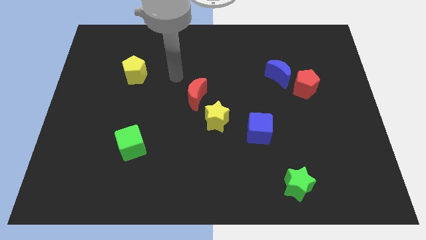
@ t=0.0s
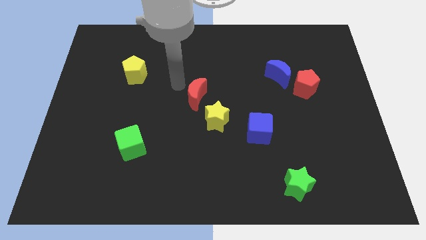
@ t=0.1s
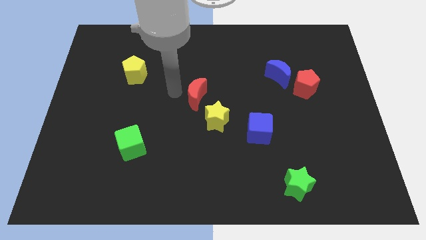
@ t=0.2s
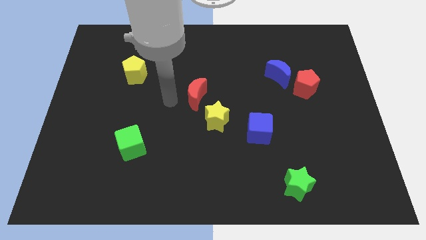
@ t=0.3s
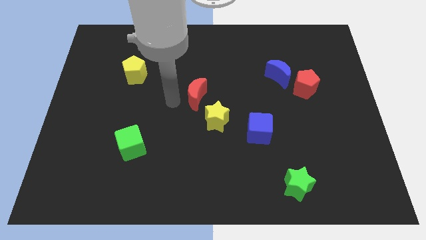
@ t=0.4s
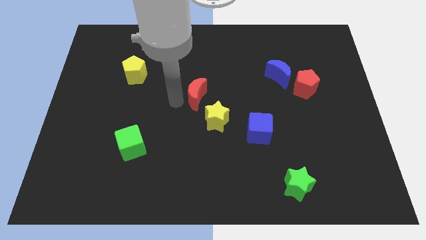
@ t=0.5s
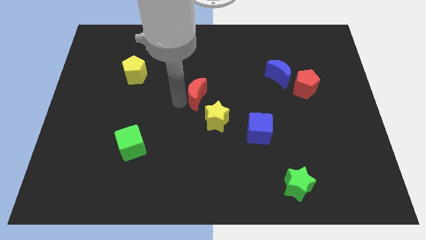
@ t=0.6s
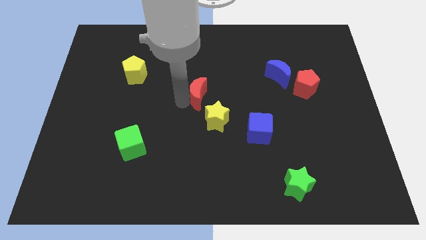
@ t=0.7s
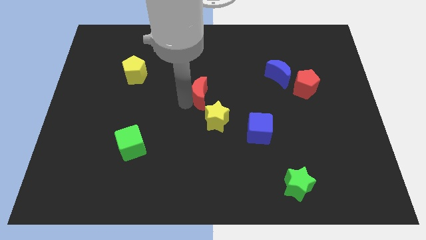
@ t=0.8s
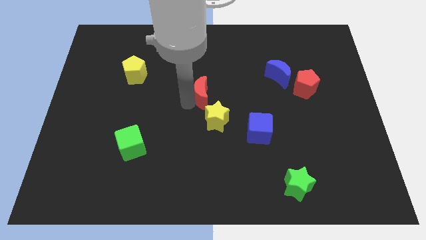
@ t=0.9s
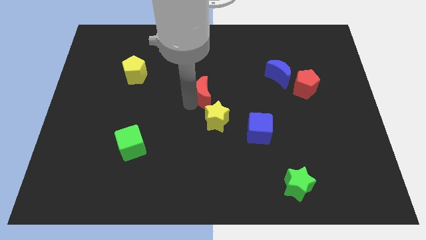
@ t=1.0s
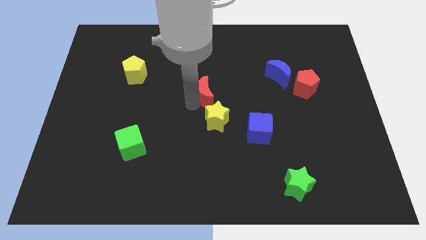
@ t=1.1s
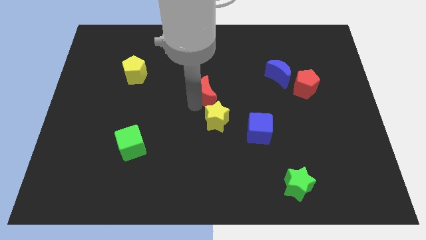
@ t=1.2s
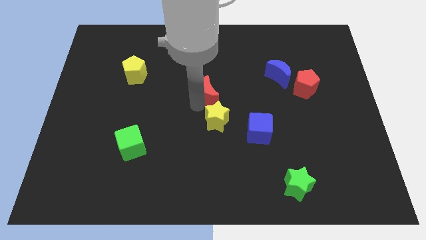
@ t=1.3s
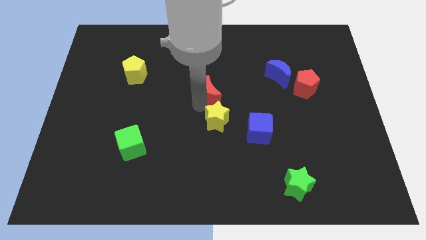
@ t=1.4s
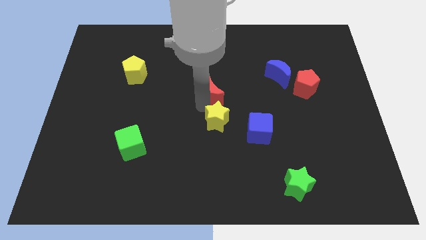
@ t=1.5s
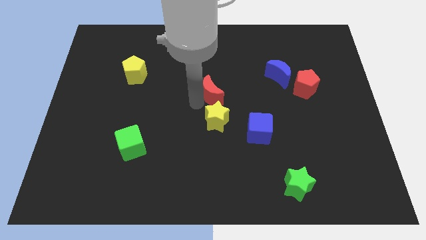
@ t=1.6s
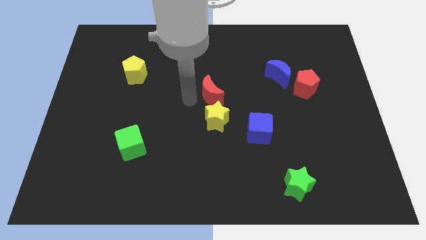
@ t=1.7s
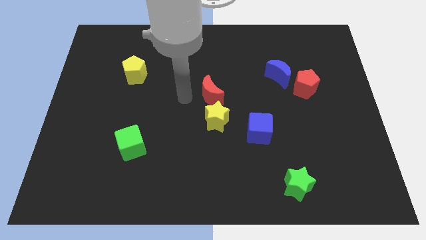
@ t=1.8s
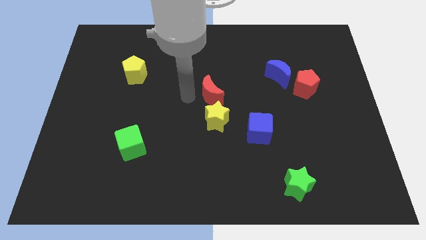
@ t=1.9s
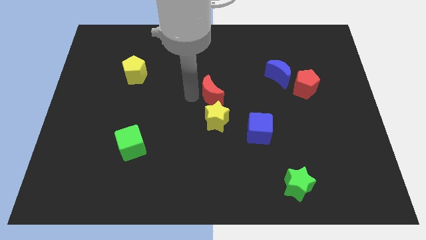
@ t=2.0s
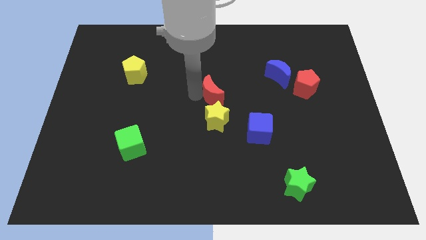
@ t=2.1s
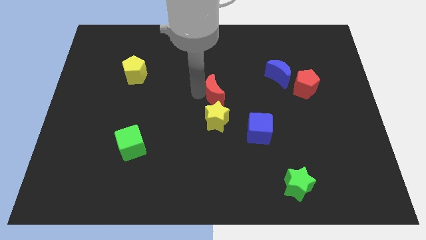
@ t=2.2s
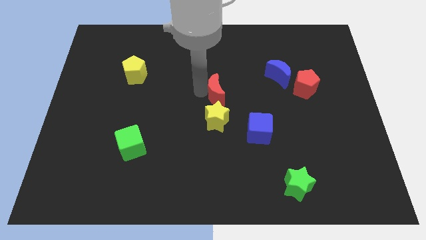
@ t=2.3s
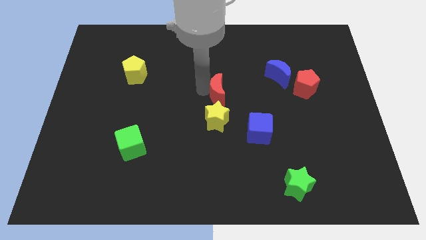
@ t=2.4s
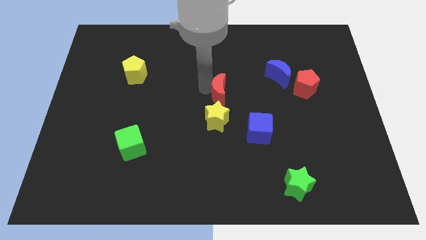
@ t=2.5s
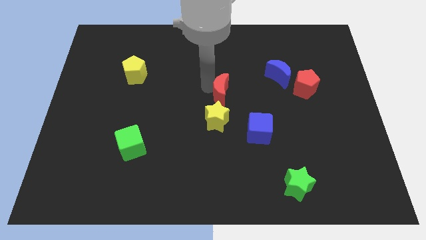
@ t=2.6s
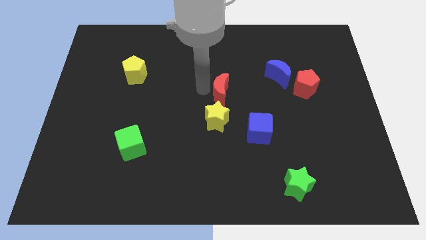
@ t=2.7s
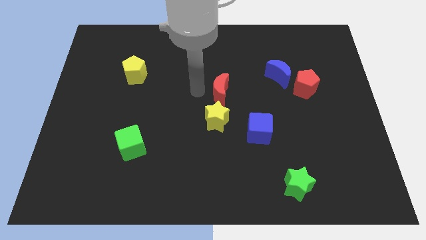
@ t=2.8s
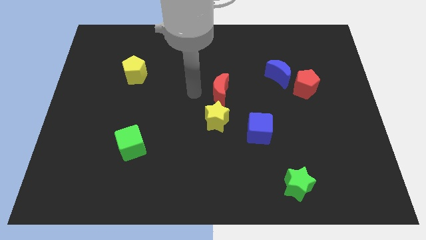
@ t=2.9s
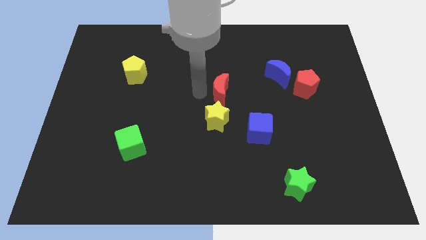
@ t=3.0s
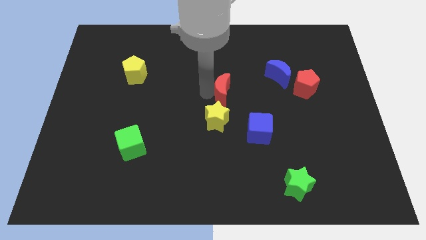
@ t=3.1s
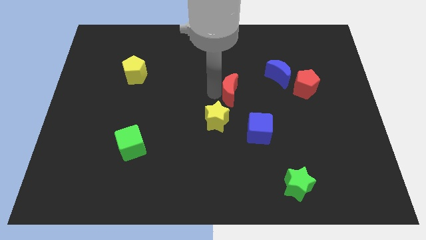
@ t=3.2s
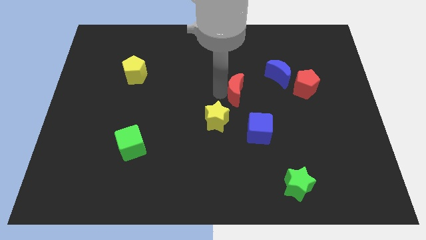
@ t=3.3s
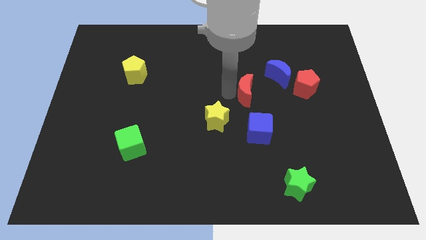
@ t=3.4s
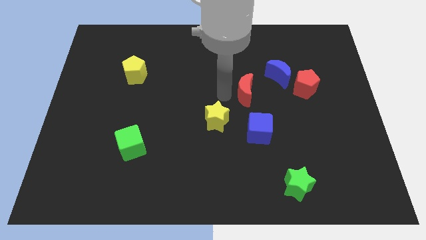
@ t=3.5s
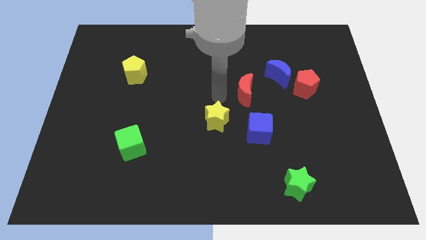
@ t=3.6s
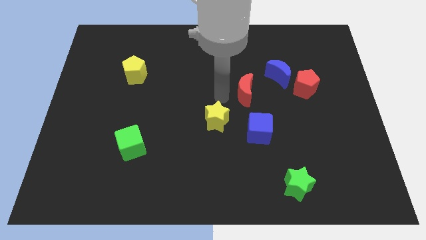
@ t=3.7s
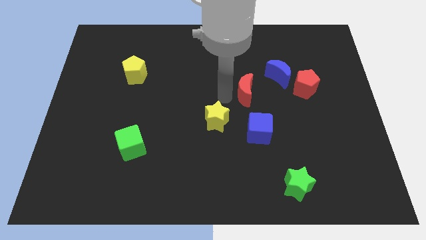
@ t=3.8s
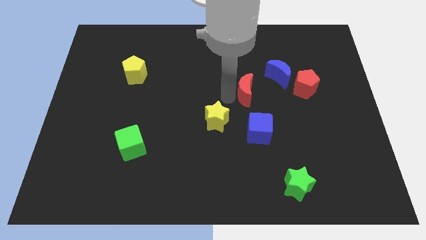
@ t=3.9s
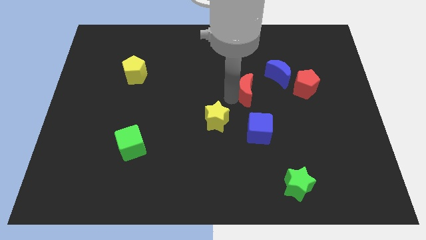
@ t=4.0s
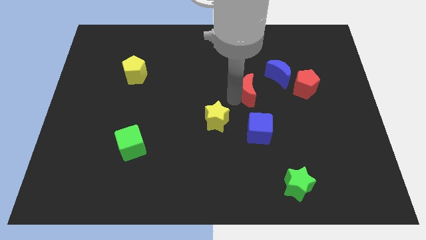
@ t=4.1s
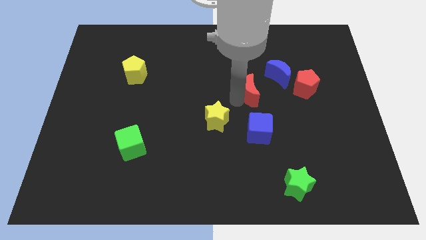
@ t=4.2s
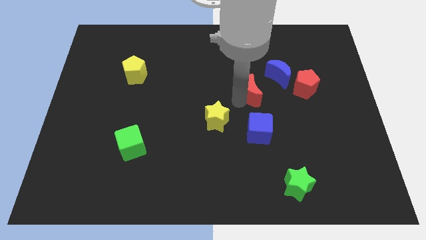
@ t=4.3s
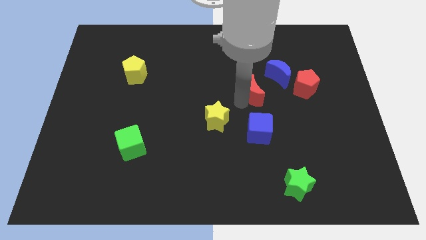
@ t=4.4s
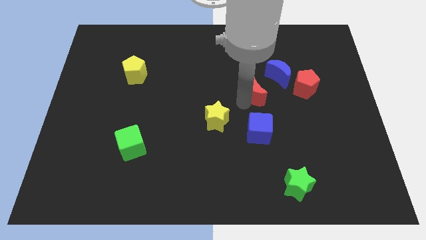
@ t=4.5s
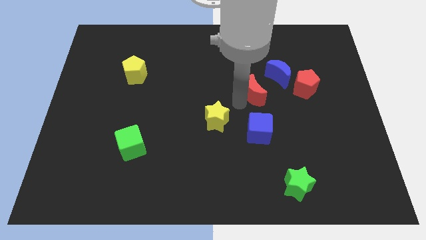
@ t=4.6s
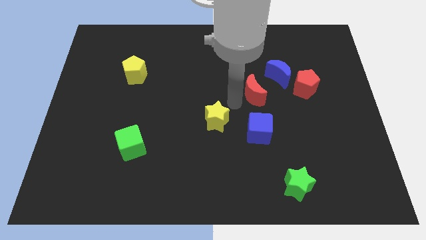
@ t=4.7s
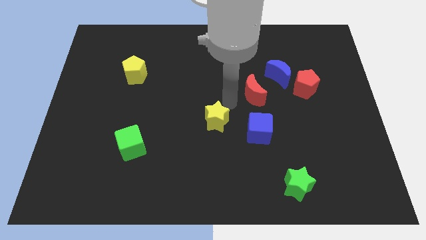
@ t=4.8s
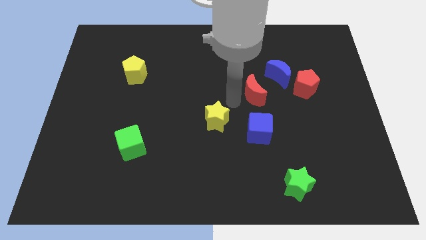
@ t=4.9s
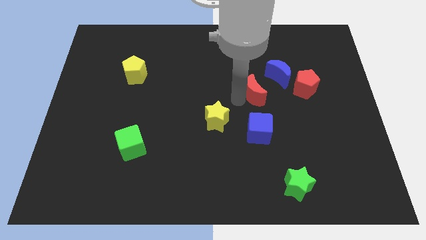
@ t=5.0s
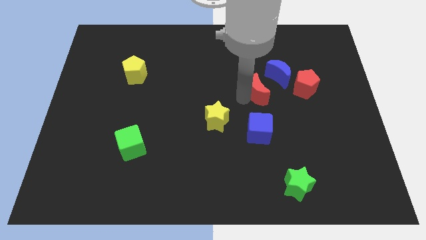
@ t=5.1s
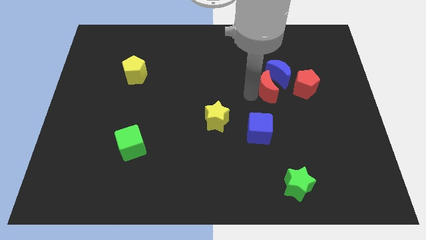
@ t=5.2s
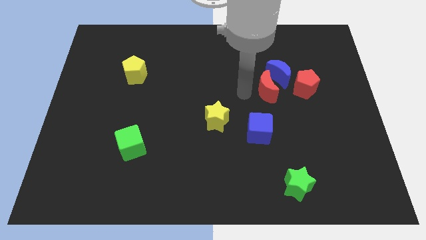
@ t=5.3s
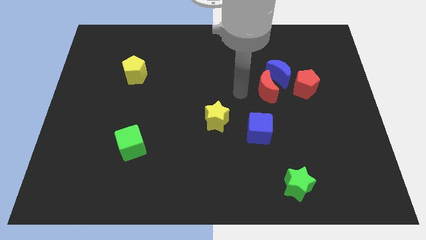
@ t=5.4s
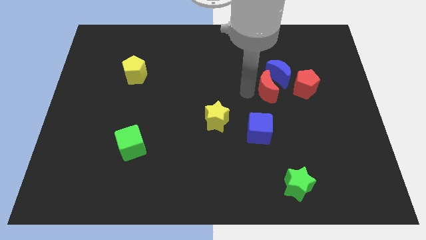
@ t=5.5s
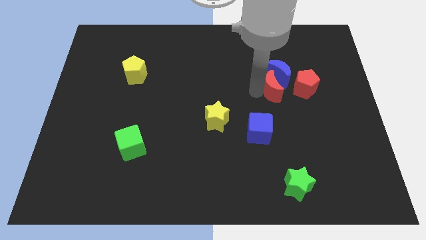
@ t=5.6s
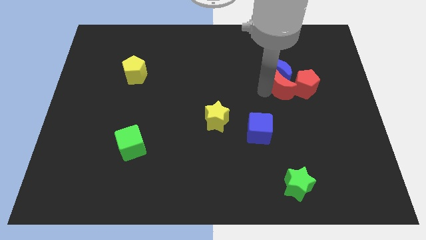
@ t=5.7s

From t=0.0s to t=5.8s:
put the red moon close to the red pentagon

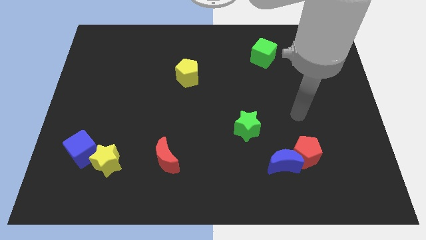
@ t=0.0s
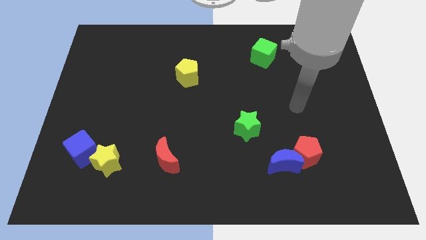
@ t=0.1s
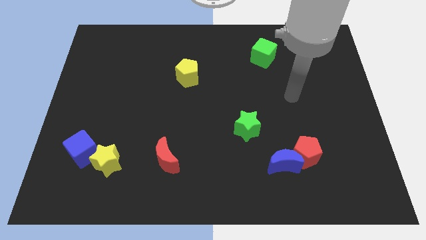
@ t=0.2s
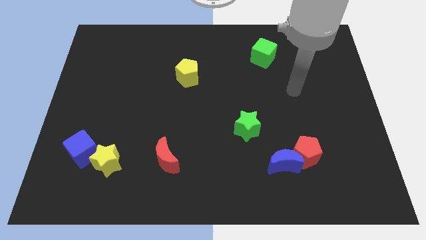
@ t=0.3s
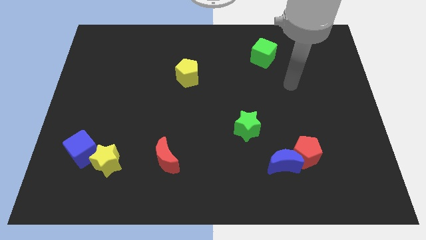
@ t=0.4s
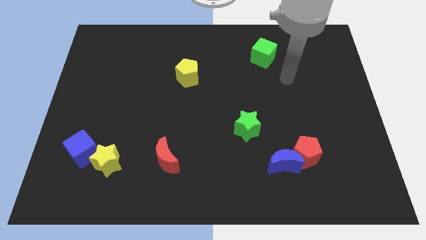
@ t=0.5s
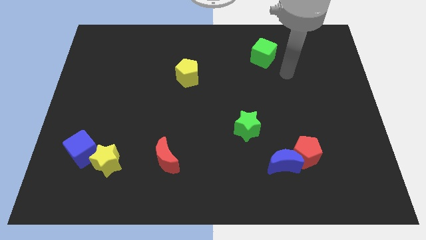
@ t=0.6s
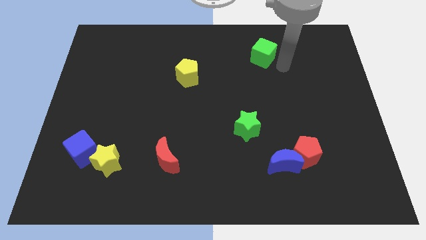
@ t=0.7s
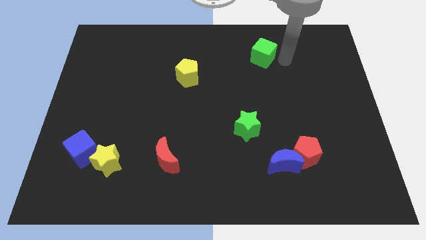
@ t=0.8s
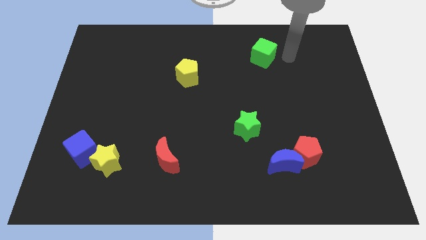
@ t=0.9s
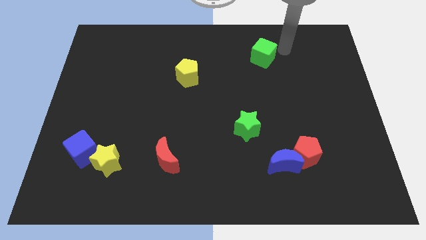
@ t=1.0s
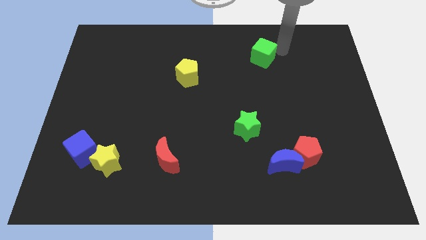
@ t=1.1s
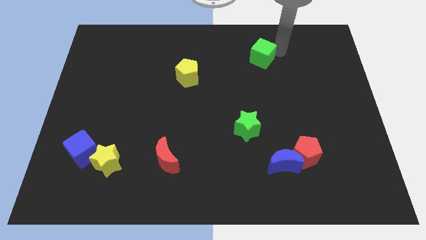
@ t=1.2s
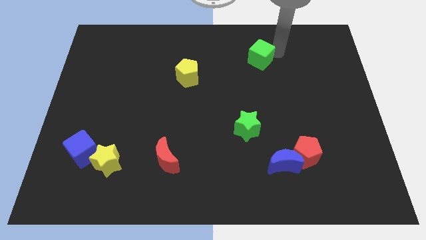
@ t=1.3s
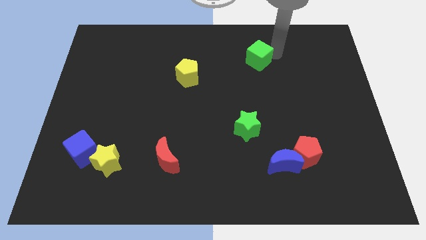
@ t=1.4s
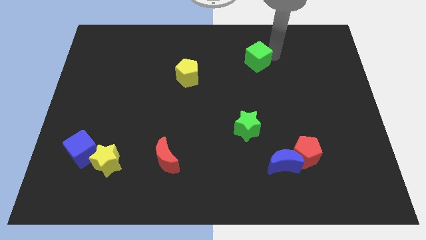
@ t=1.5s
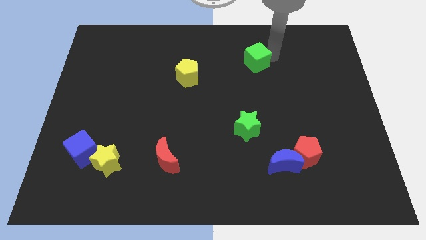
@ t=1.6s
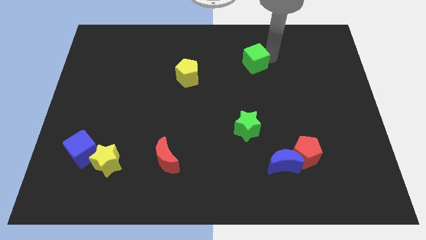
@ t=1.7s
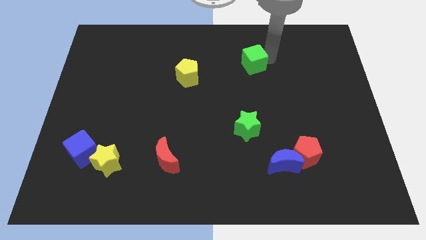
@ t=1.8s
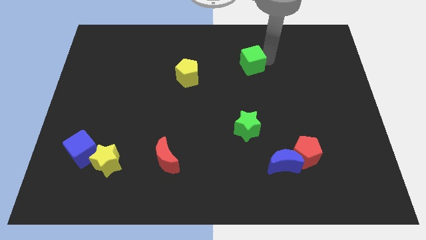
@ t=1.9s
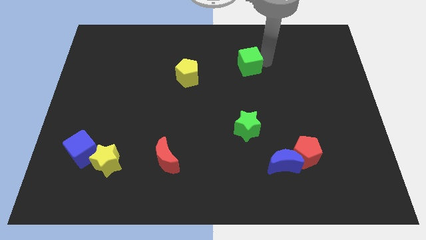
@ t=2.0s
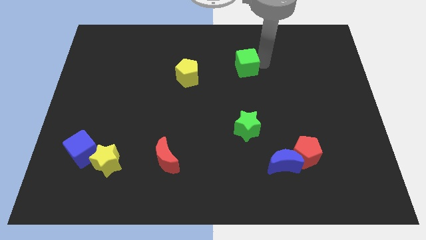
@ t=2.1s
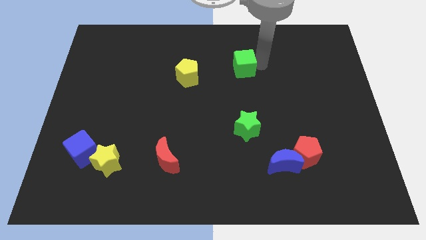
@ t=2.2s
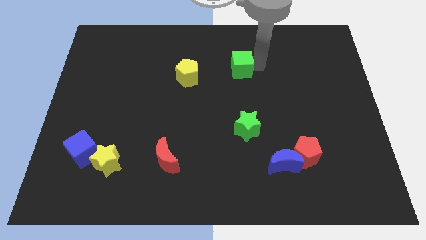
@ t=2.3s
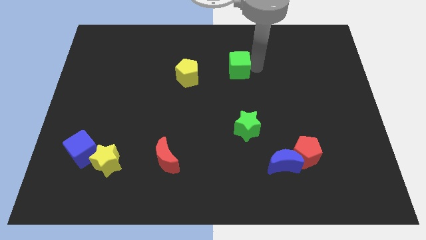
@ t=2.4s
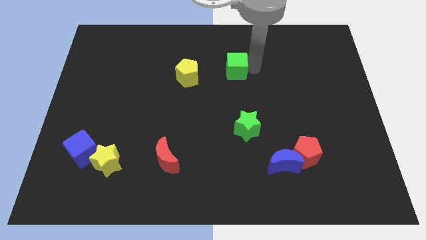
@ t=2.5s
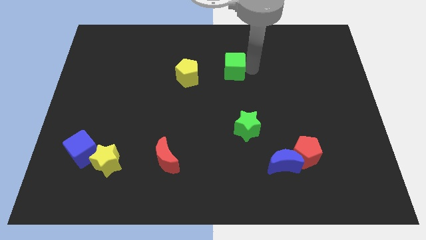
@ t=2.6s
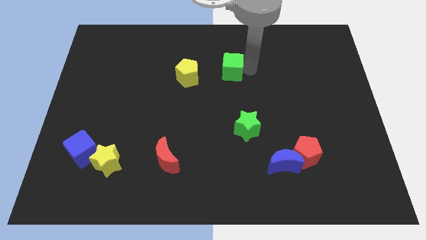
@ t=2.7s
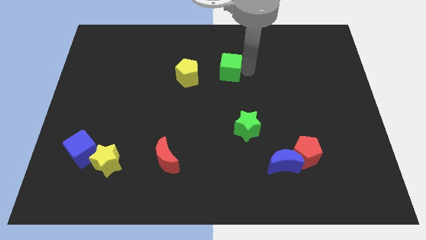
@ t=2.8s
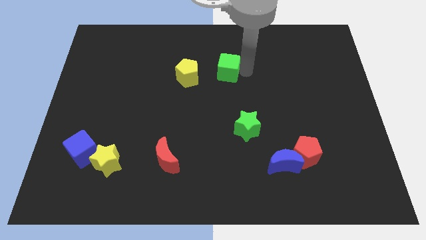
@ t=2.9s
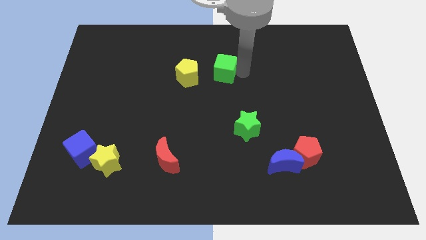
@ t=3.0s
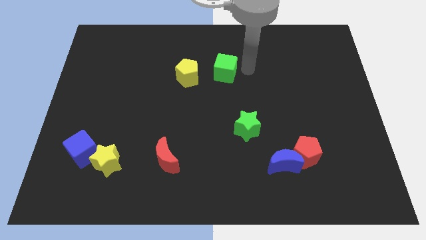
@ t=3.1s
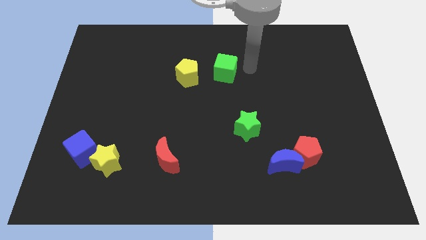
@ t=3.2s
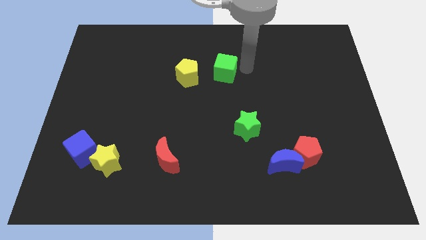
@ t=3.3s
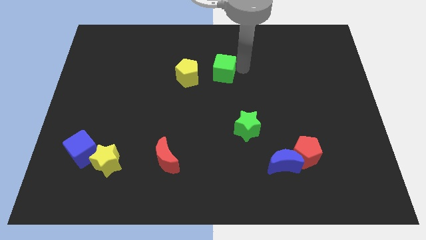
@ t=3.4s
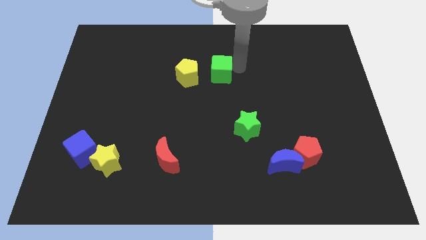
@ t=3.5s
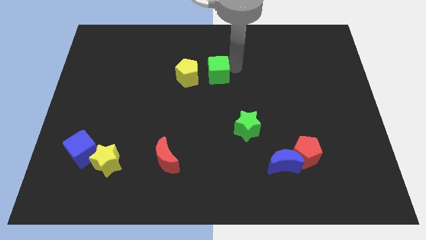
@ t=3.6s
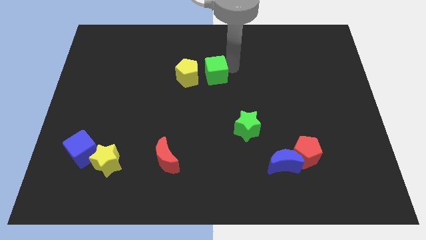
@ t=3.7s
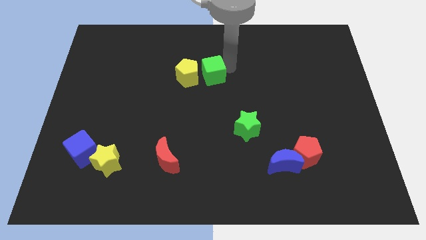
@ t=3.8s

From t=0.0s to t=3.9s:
move the green cube close to the yellow pentagon
